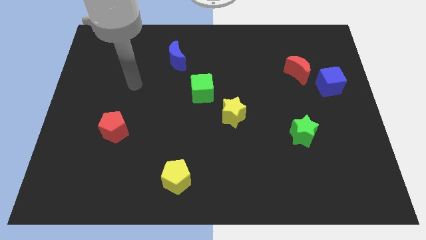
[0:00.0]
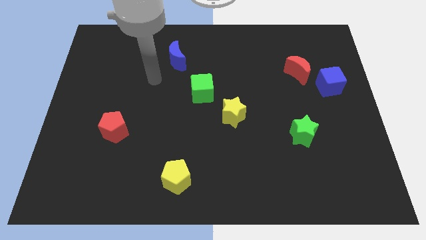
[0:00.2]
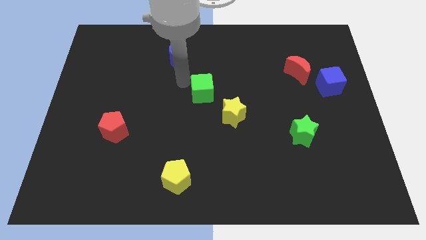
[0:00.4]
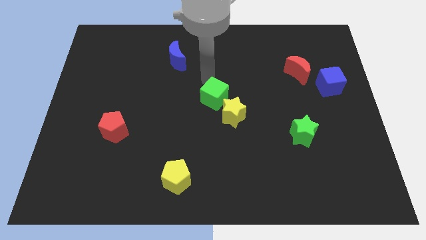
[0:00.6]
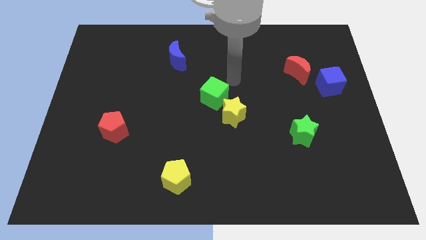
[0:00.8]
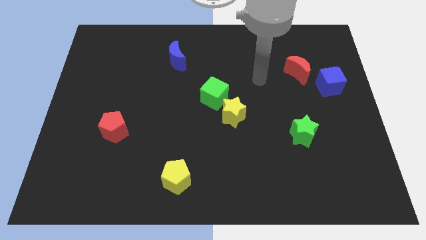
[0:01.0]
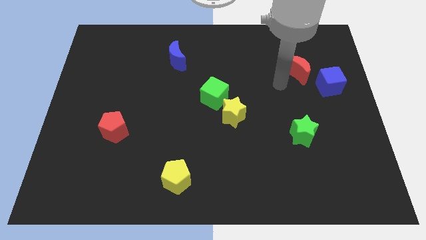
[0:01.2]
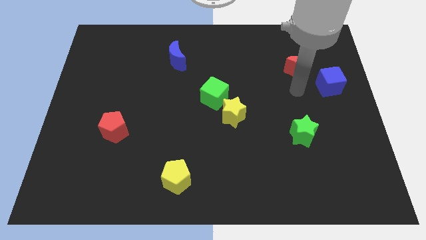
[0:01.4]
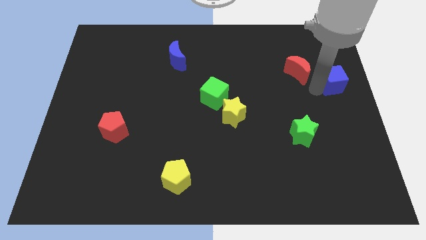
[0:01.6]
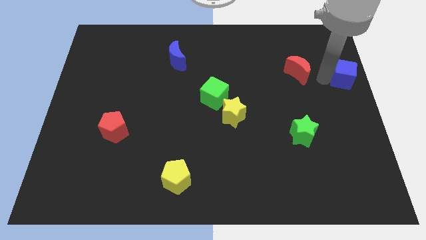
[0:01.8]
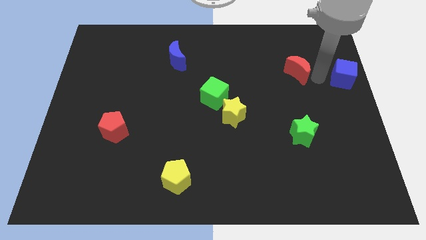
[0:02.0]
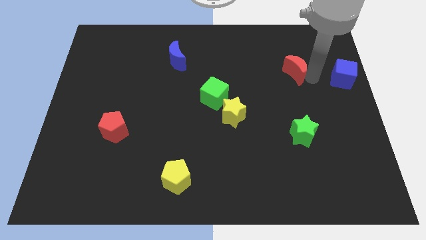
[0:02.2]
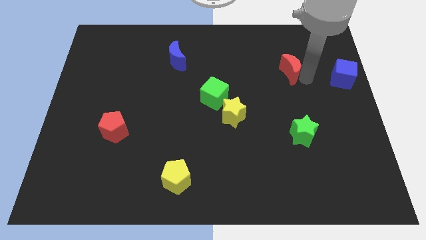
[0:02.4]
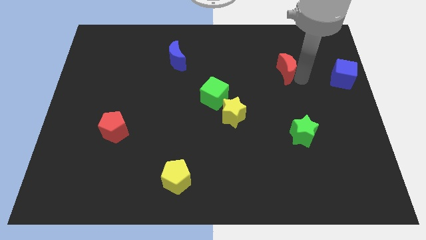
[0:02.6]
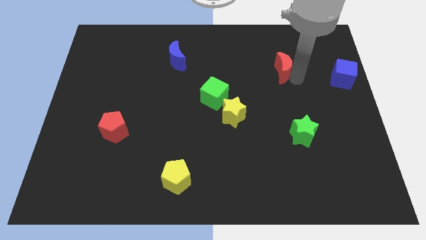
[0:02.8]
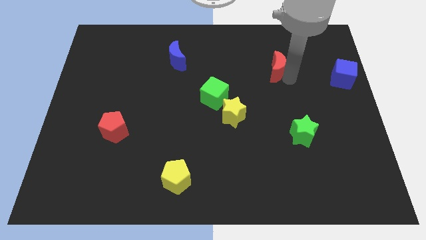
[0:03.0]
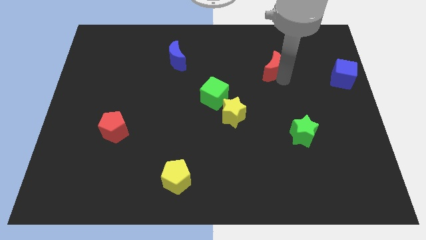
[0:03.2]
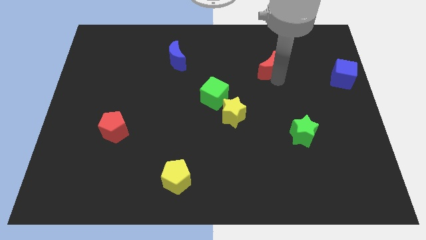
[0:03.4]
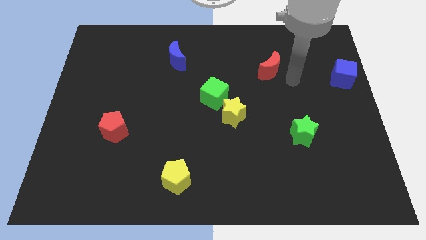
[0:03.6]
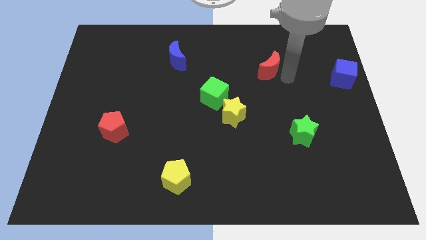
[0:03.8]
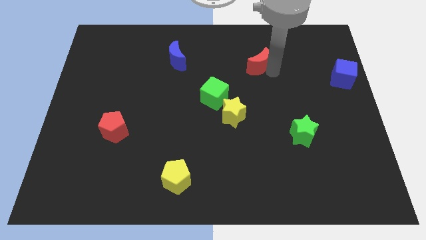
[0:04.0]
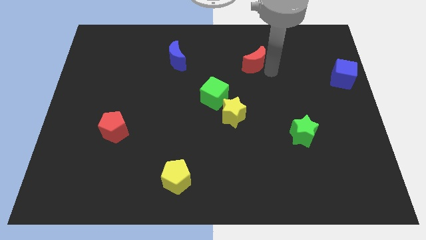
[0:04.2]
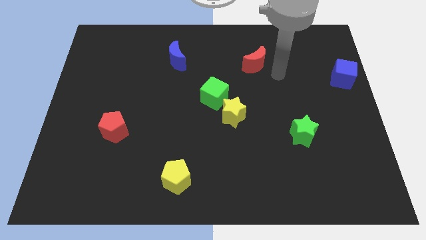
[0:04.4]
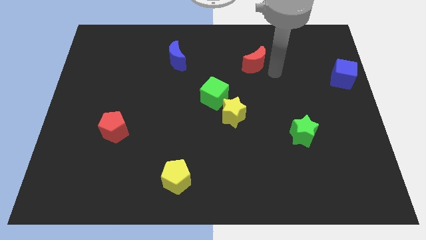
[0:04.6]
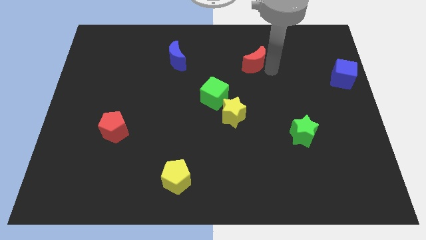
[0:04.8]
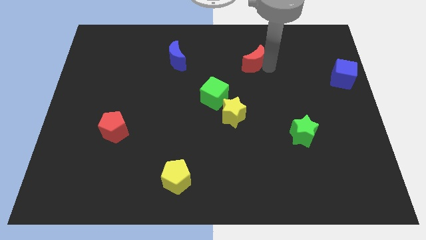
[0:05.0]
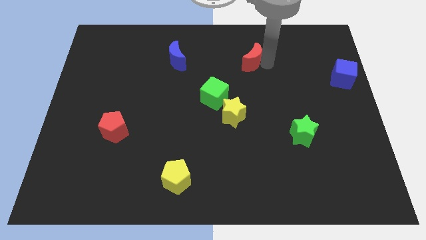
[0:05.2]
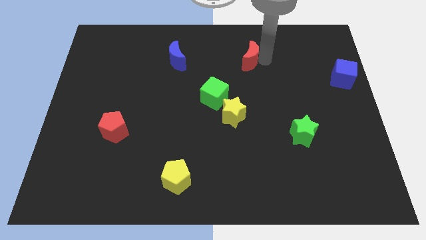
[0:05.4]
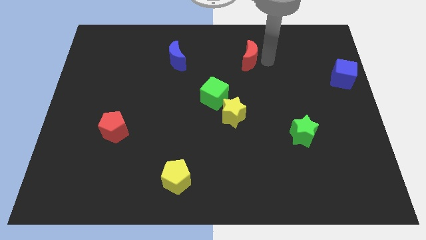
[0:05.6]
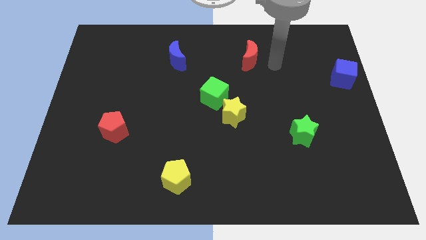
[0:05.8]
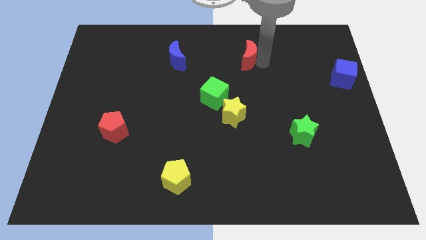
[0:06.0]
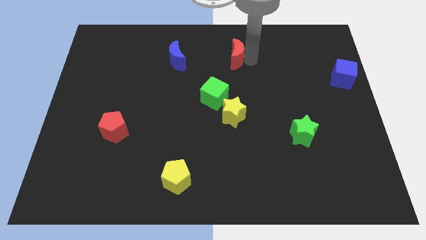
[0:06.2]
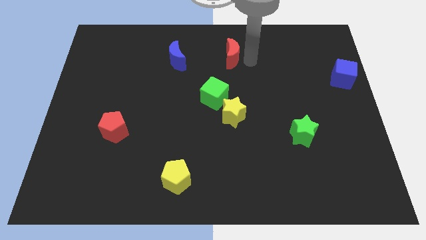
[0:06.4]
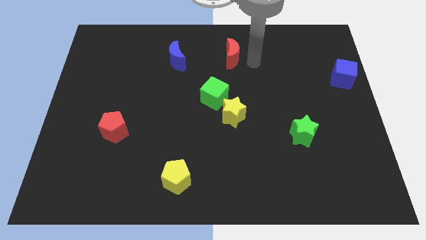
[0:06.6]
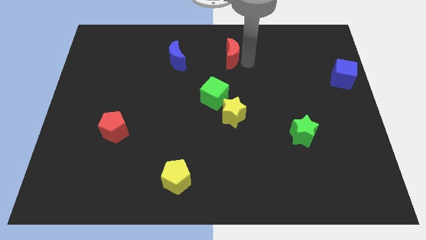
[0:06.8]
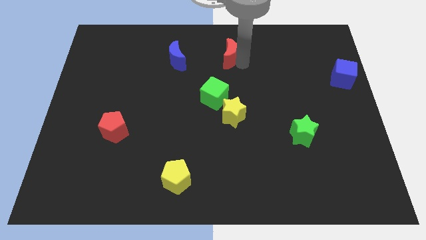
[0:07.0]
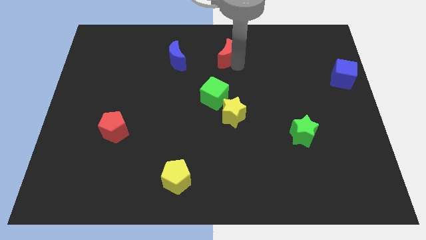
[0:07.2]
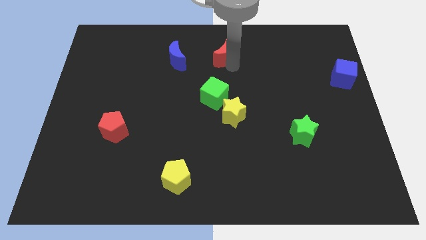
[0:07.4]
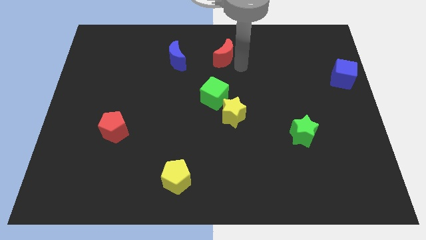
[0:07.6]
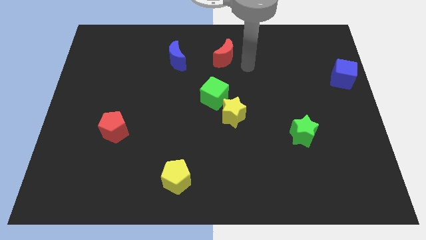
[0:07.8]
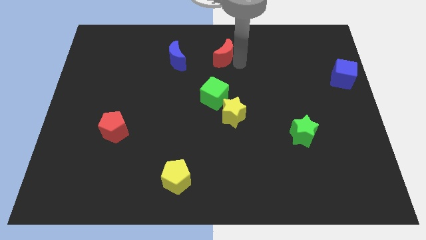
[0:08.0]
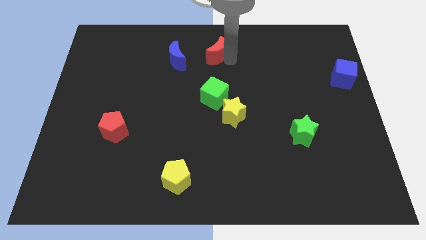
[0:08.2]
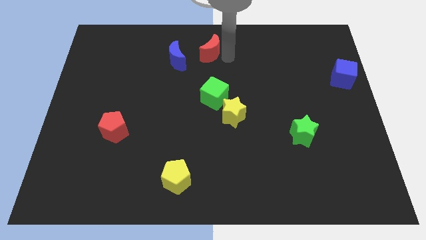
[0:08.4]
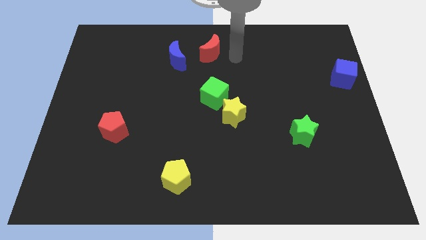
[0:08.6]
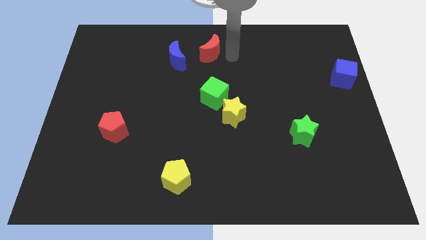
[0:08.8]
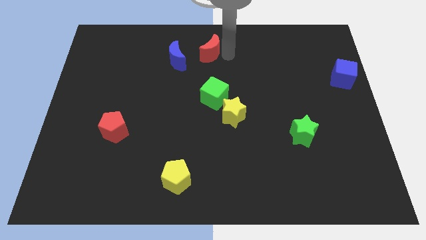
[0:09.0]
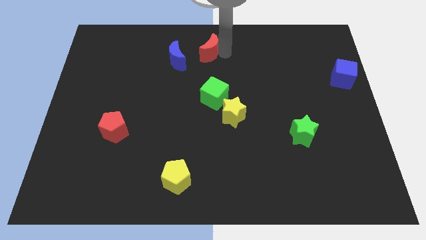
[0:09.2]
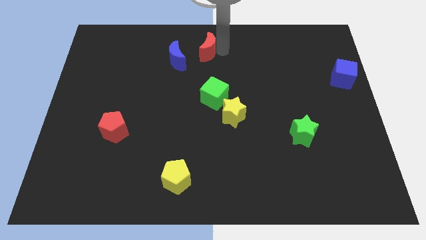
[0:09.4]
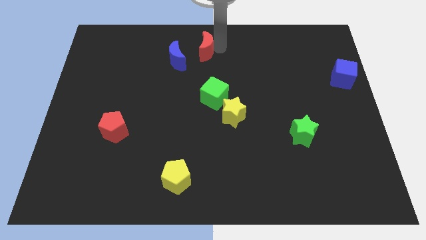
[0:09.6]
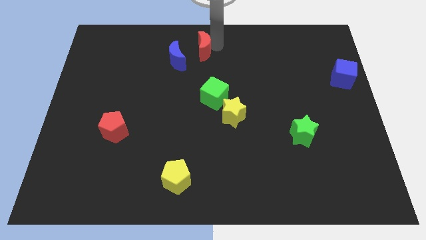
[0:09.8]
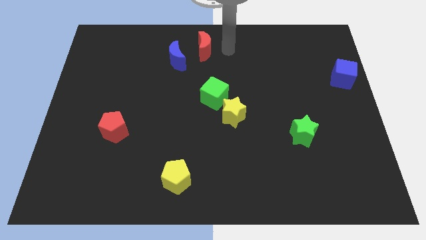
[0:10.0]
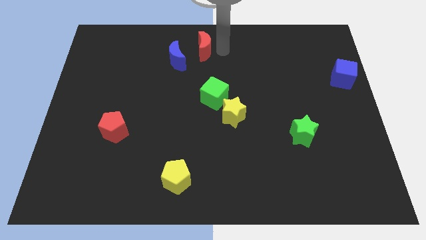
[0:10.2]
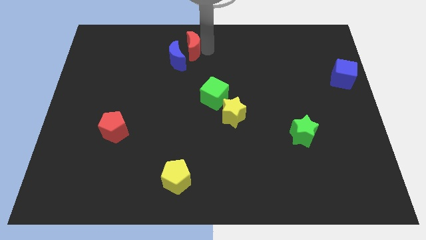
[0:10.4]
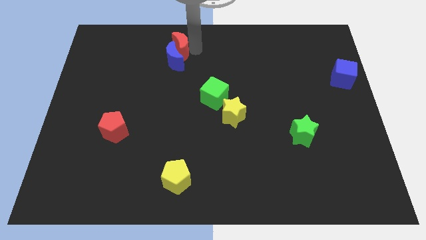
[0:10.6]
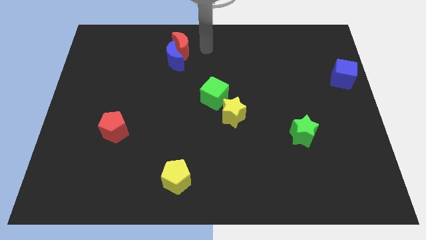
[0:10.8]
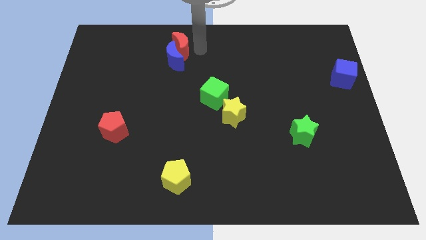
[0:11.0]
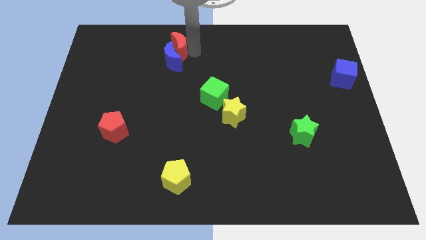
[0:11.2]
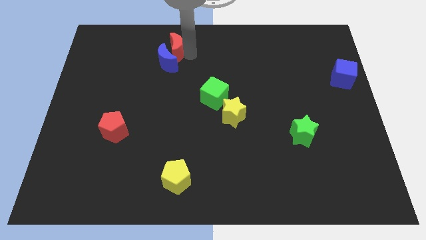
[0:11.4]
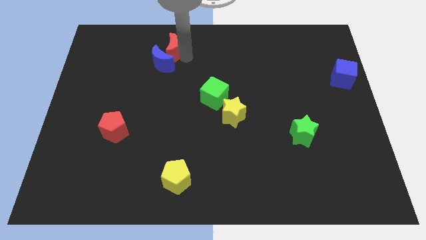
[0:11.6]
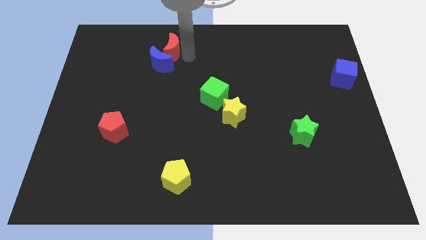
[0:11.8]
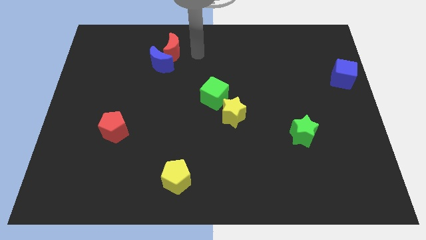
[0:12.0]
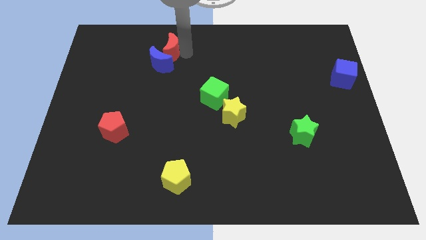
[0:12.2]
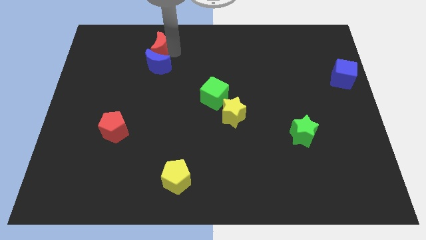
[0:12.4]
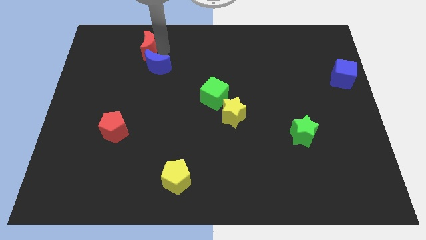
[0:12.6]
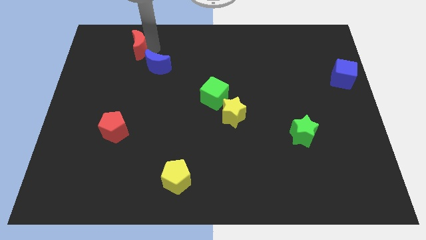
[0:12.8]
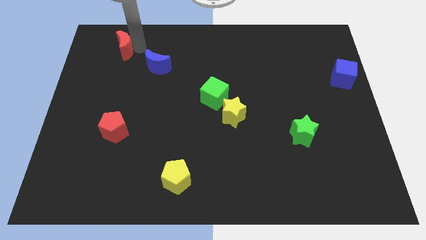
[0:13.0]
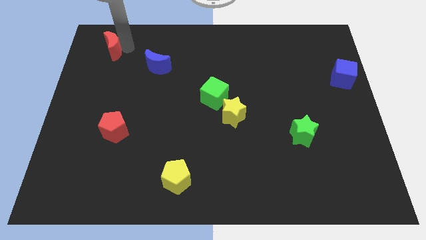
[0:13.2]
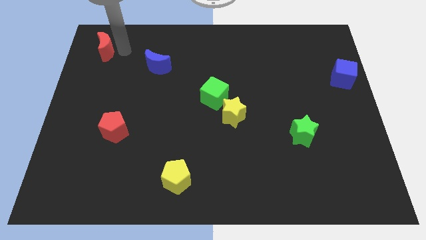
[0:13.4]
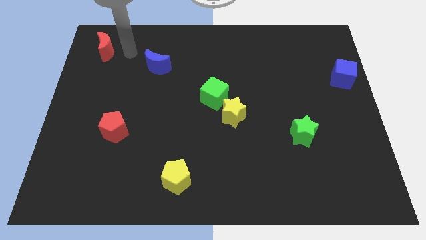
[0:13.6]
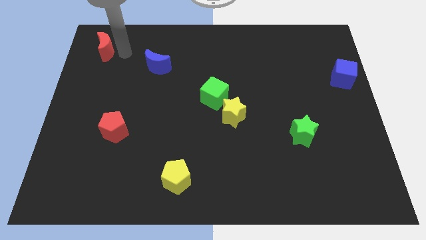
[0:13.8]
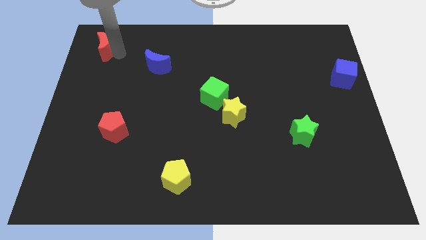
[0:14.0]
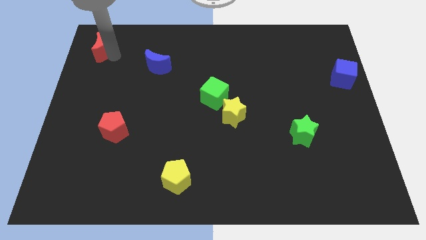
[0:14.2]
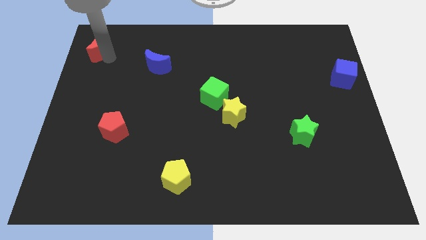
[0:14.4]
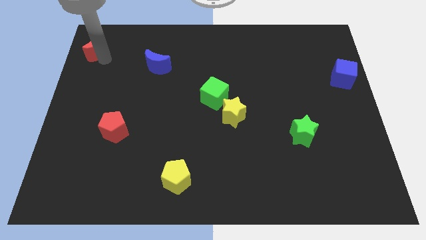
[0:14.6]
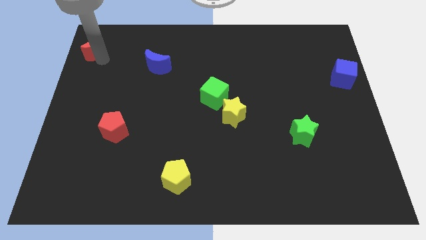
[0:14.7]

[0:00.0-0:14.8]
move the red moon to the top left of the board
